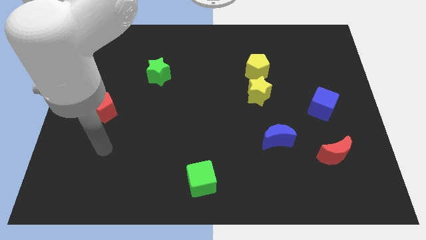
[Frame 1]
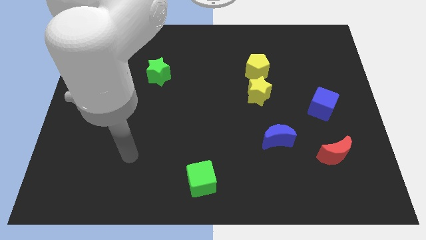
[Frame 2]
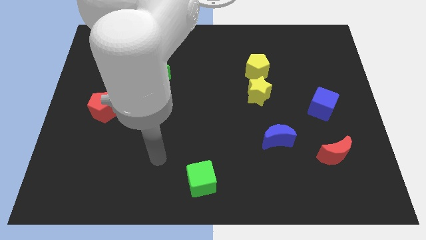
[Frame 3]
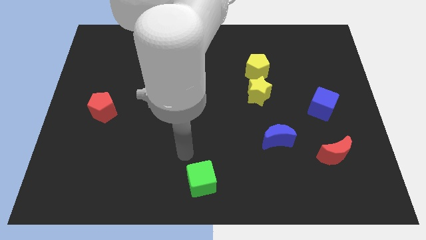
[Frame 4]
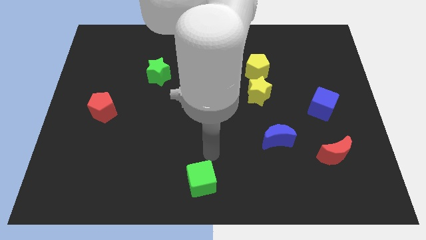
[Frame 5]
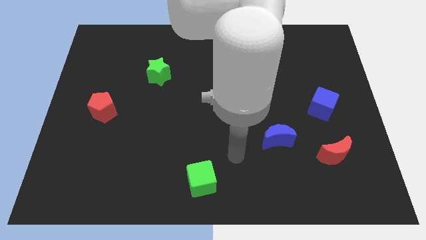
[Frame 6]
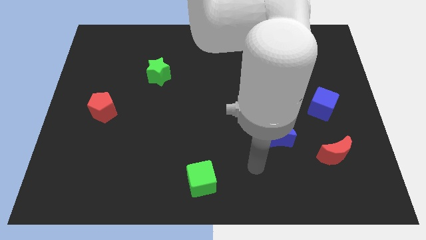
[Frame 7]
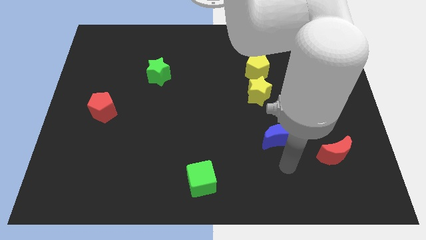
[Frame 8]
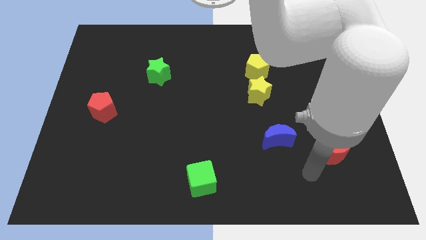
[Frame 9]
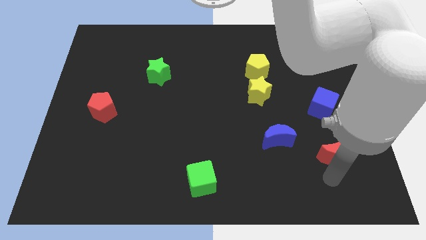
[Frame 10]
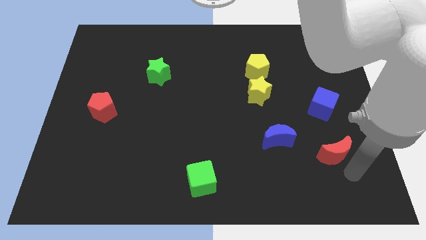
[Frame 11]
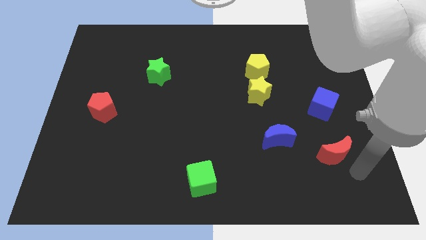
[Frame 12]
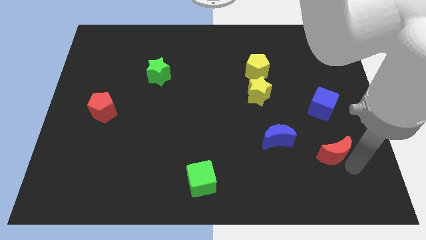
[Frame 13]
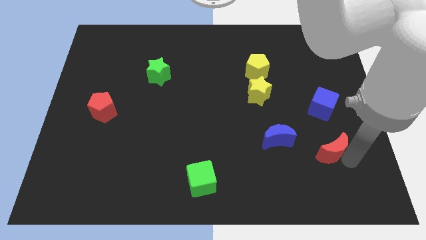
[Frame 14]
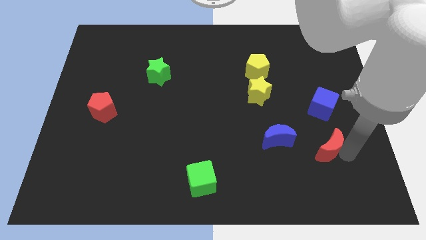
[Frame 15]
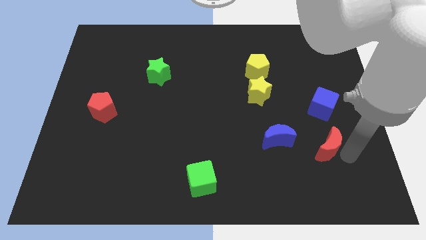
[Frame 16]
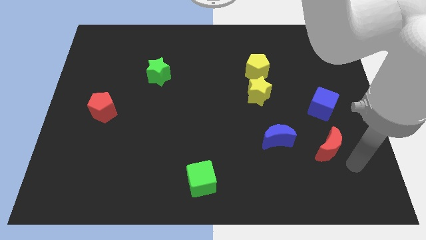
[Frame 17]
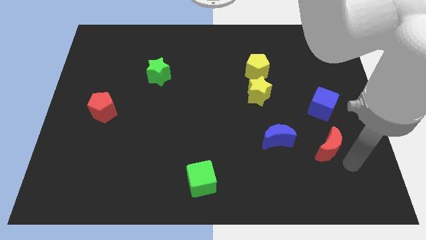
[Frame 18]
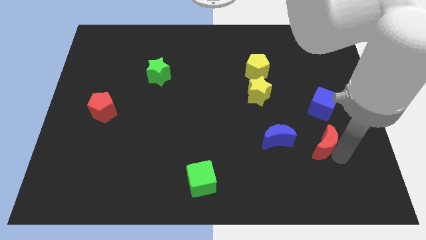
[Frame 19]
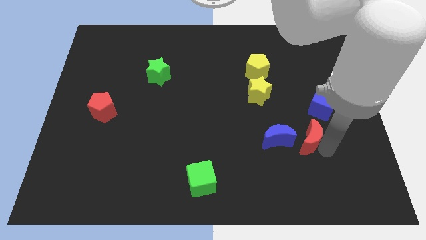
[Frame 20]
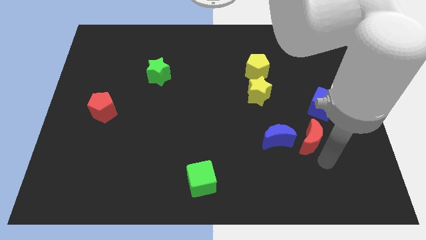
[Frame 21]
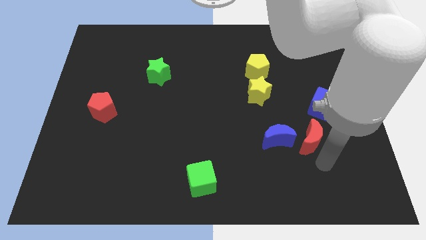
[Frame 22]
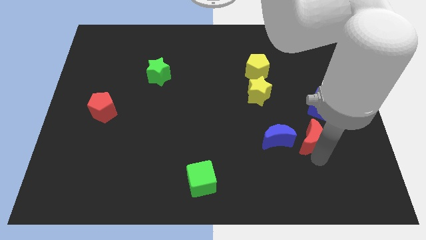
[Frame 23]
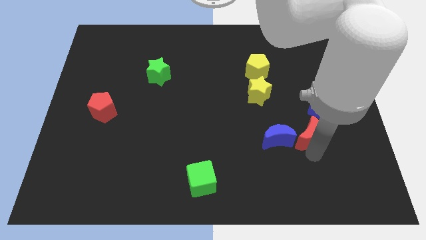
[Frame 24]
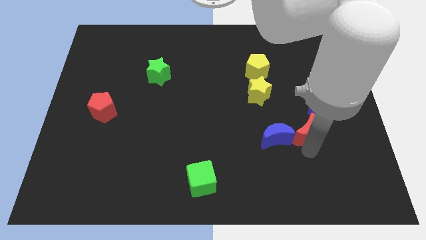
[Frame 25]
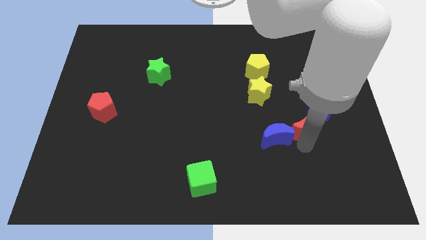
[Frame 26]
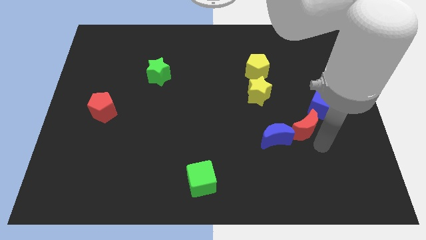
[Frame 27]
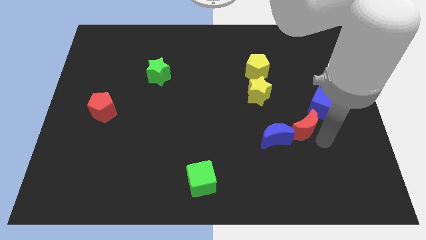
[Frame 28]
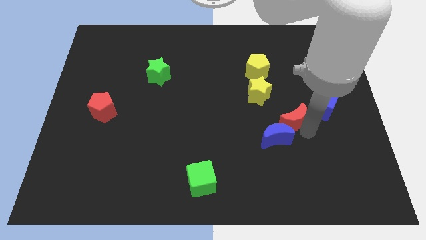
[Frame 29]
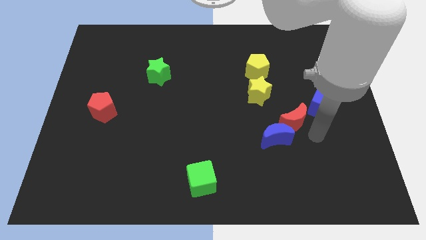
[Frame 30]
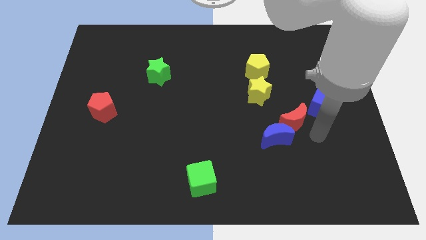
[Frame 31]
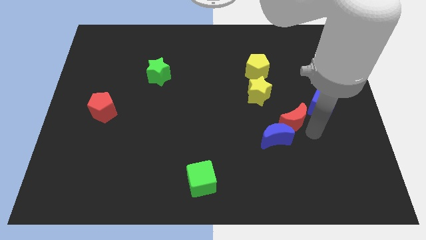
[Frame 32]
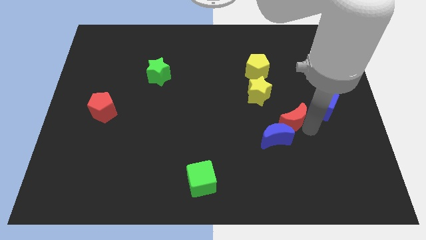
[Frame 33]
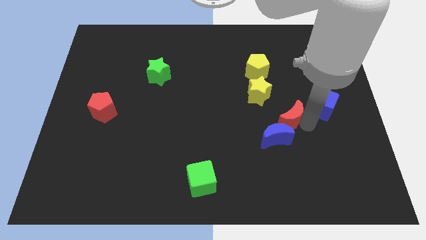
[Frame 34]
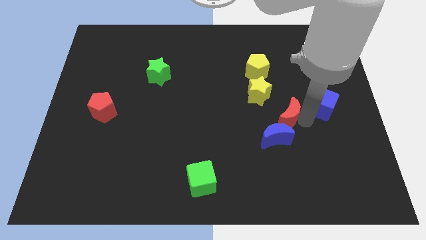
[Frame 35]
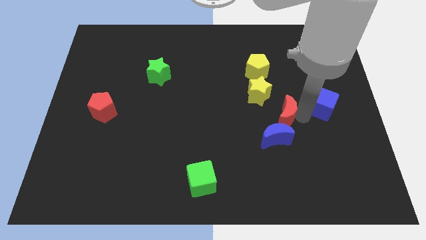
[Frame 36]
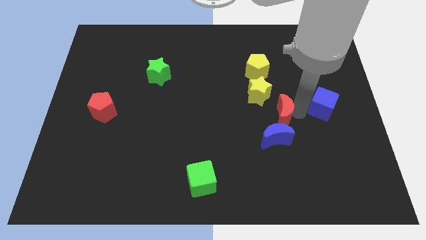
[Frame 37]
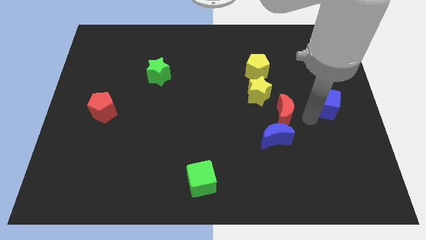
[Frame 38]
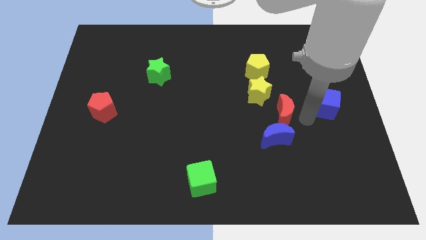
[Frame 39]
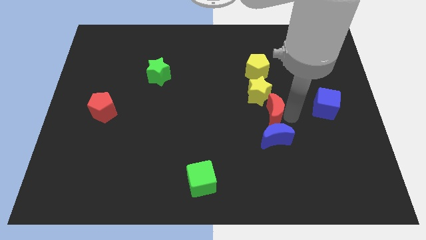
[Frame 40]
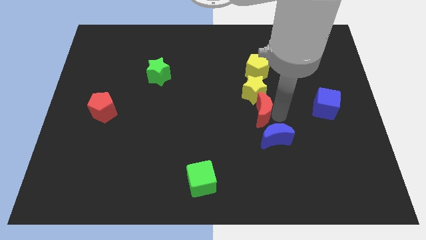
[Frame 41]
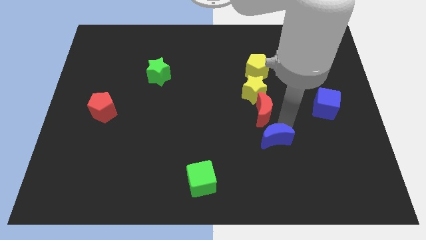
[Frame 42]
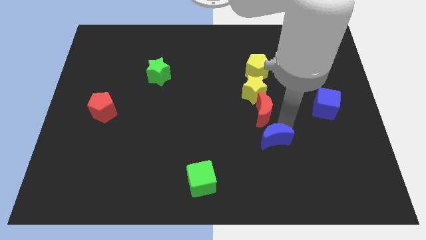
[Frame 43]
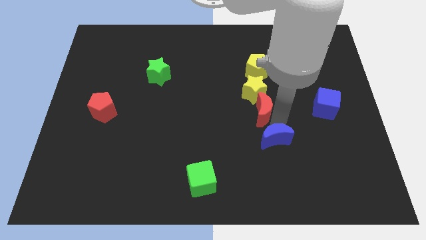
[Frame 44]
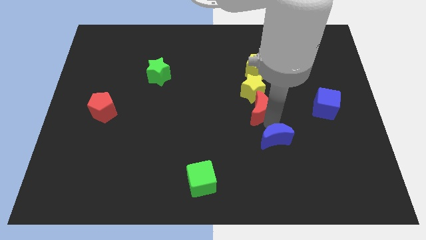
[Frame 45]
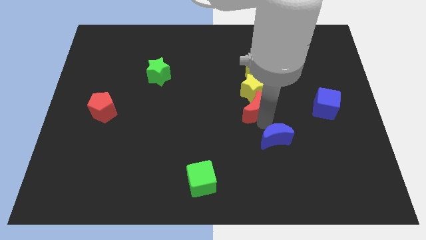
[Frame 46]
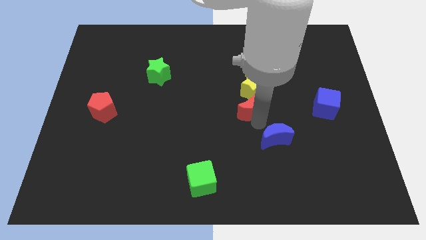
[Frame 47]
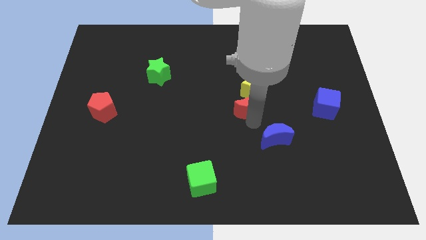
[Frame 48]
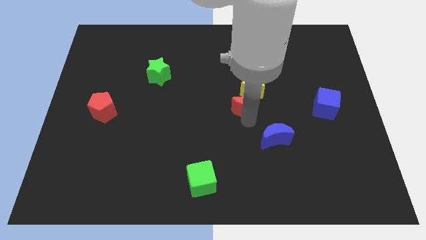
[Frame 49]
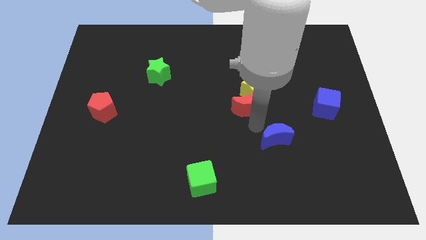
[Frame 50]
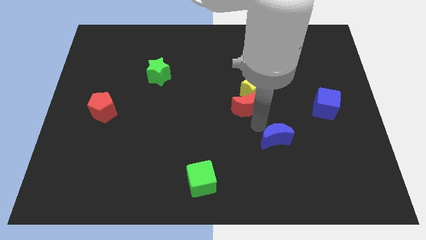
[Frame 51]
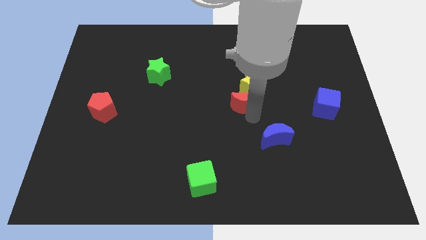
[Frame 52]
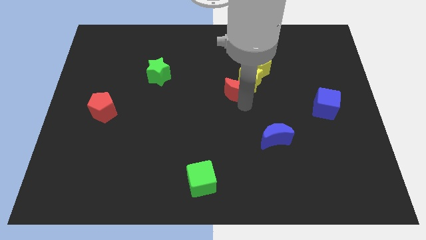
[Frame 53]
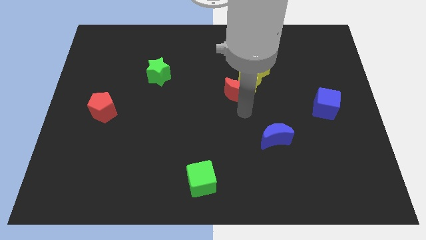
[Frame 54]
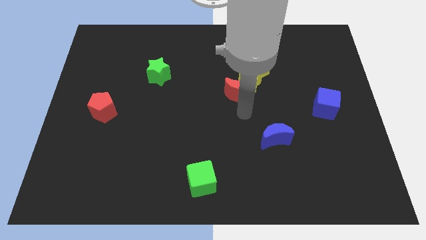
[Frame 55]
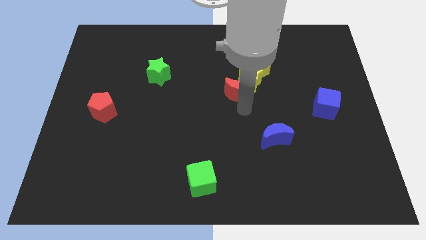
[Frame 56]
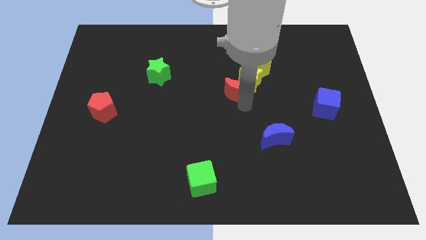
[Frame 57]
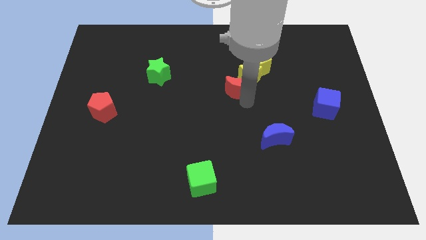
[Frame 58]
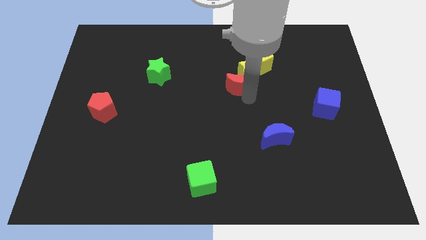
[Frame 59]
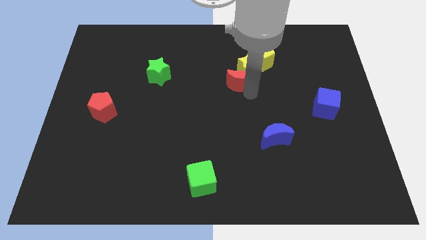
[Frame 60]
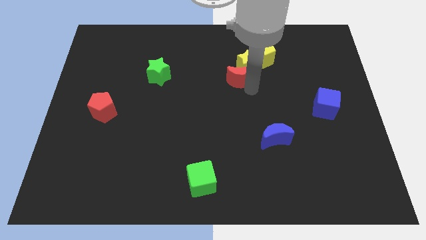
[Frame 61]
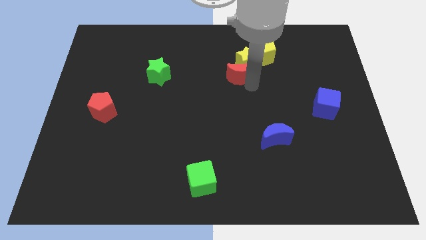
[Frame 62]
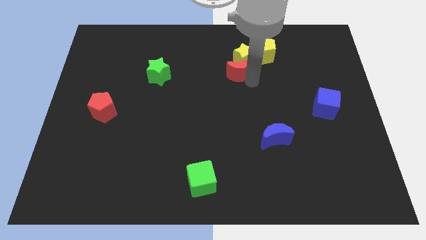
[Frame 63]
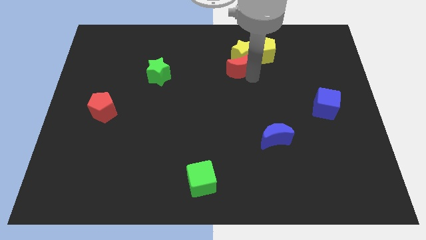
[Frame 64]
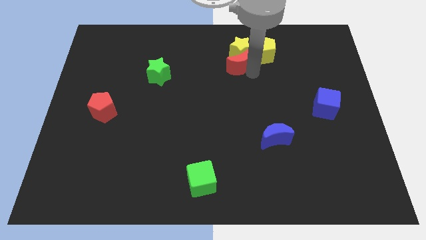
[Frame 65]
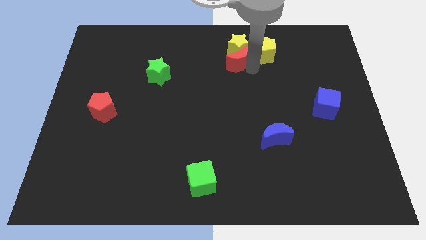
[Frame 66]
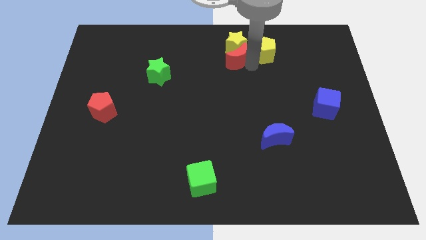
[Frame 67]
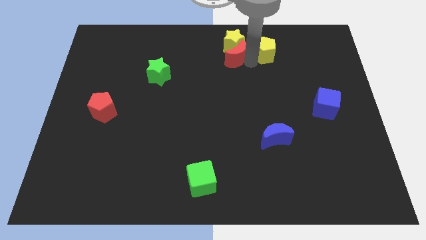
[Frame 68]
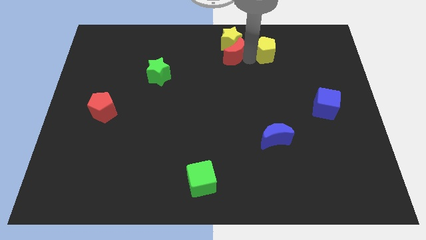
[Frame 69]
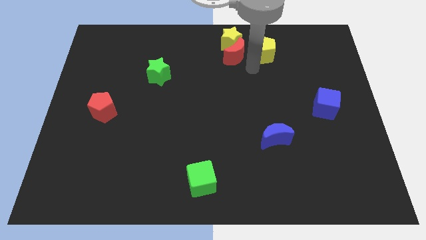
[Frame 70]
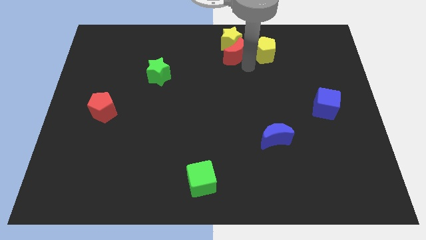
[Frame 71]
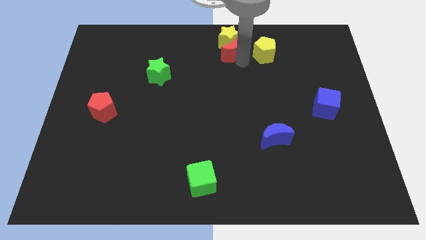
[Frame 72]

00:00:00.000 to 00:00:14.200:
move the red moon to the top side
